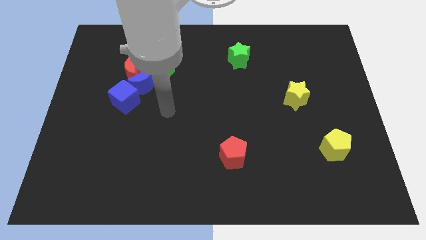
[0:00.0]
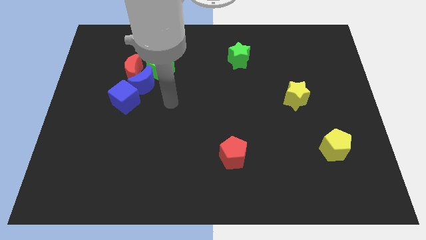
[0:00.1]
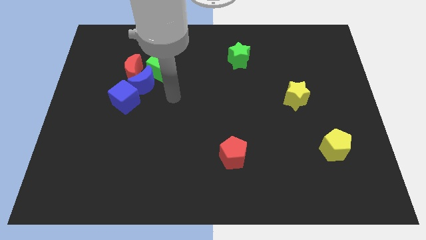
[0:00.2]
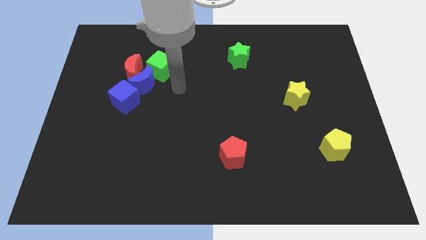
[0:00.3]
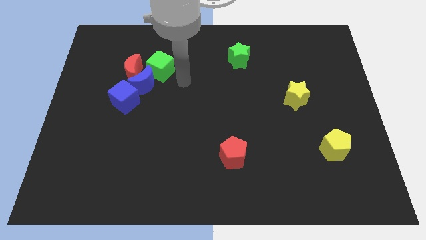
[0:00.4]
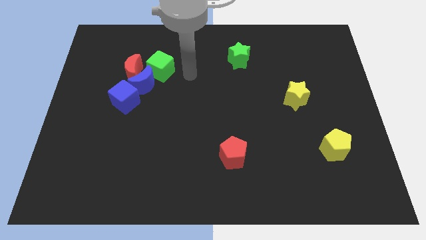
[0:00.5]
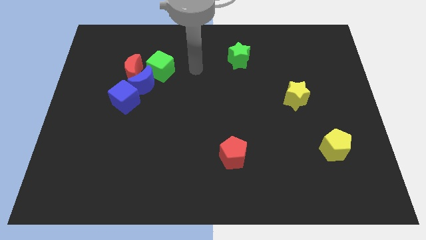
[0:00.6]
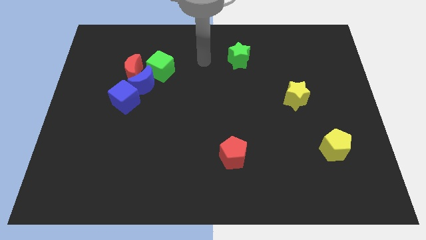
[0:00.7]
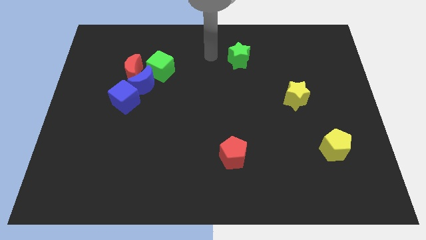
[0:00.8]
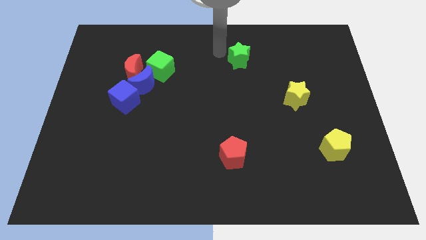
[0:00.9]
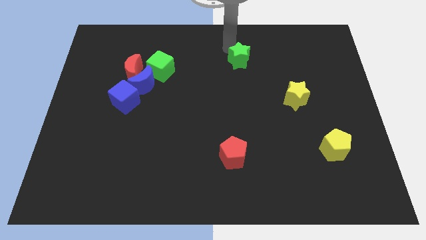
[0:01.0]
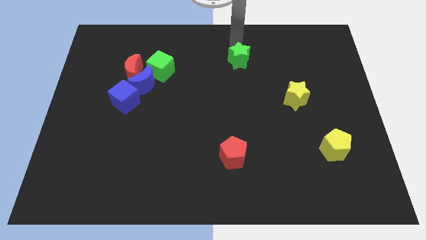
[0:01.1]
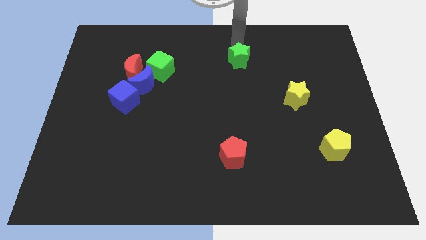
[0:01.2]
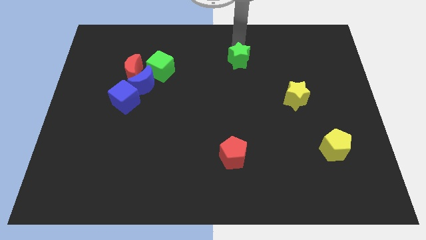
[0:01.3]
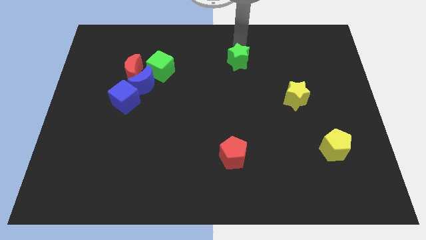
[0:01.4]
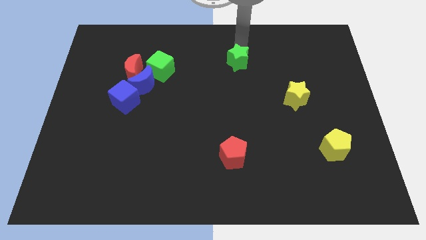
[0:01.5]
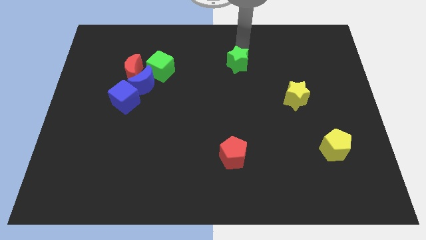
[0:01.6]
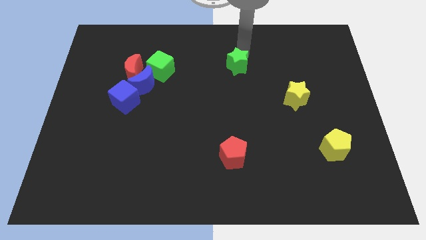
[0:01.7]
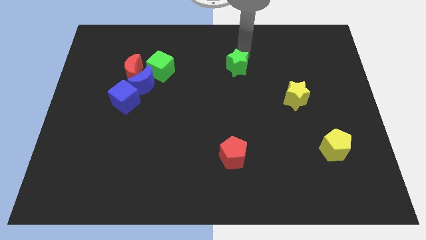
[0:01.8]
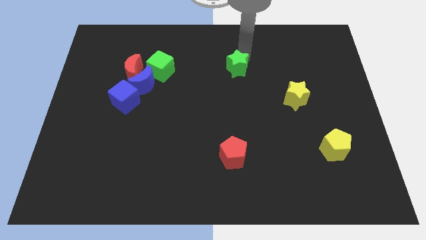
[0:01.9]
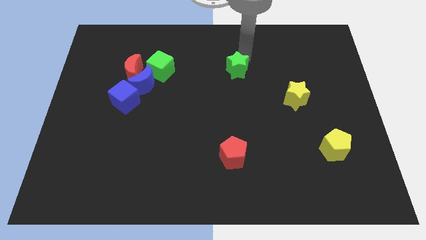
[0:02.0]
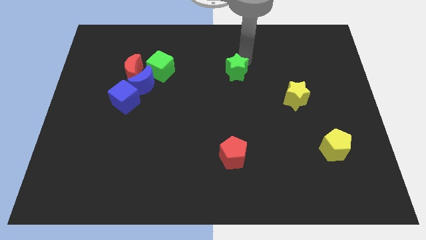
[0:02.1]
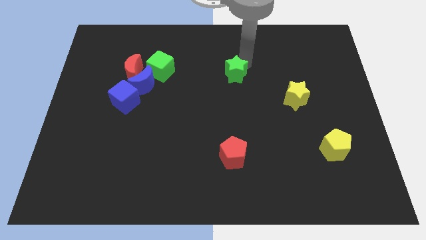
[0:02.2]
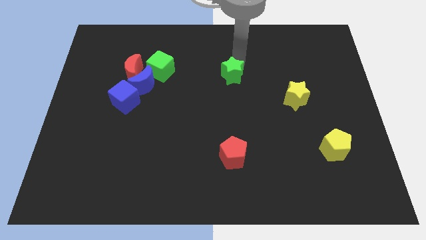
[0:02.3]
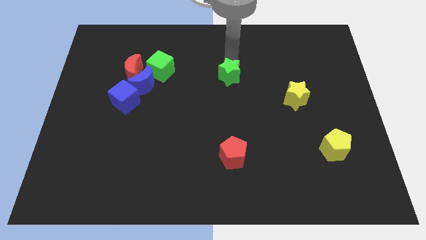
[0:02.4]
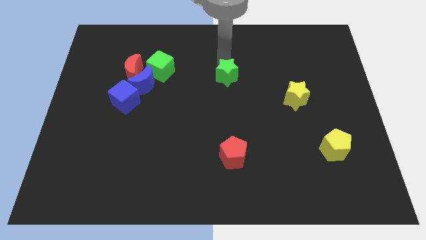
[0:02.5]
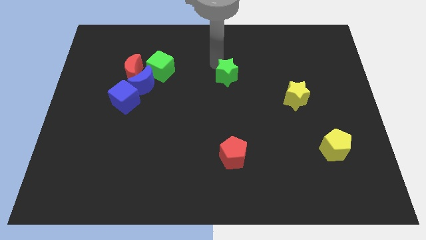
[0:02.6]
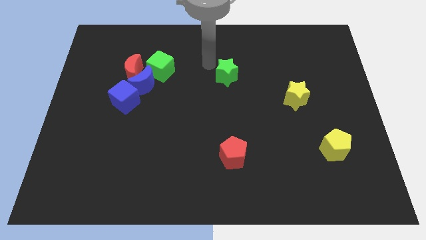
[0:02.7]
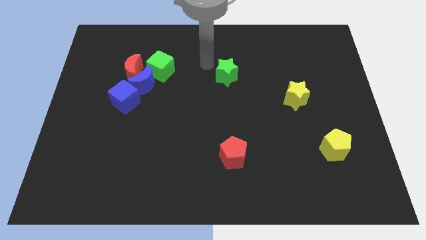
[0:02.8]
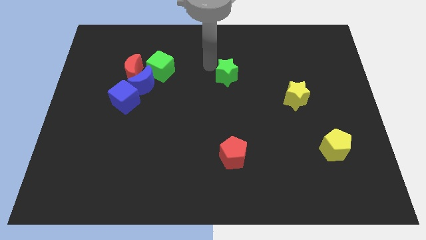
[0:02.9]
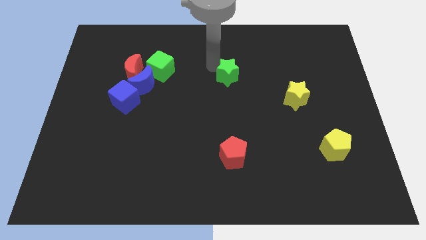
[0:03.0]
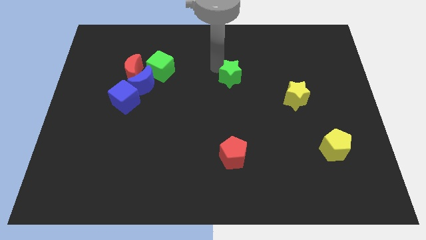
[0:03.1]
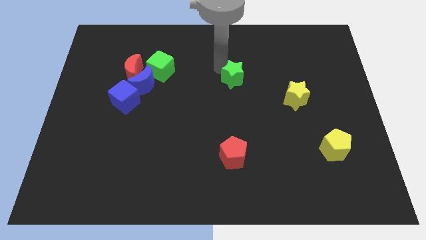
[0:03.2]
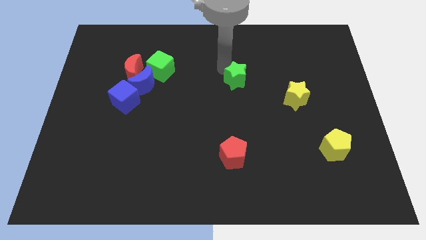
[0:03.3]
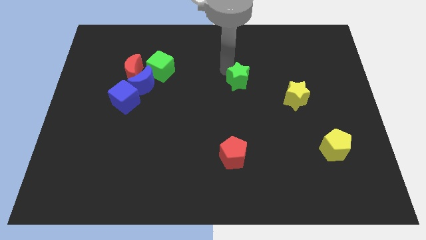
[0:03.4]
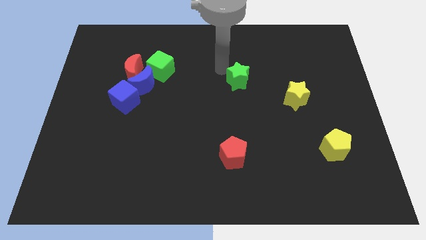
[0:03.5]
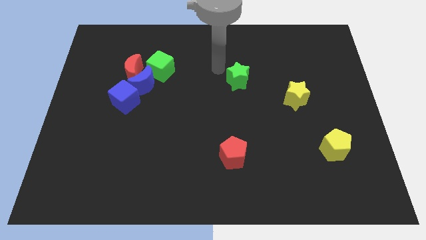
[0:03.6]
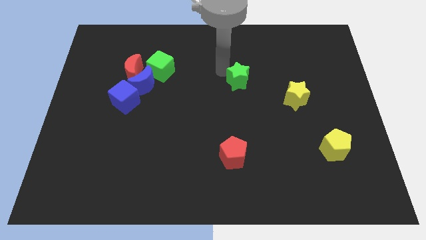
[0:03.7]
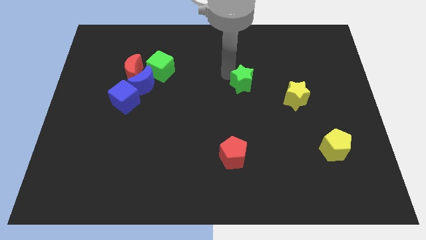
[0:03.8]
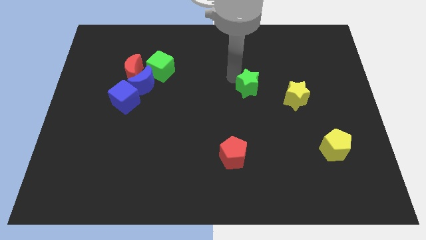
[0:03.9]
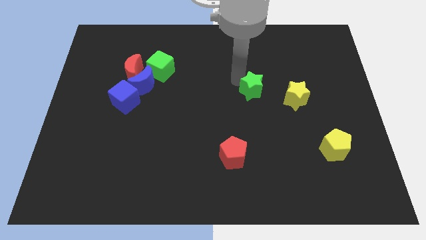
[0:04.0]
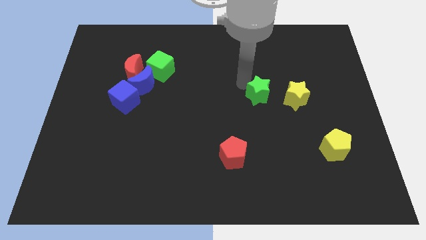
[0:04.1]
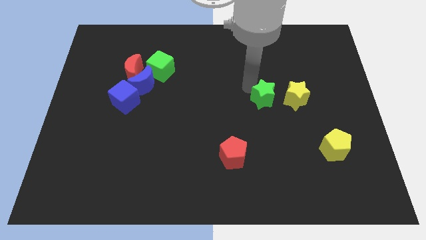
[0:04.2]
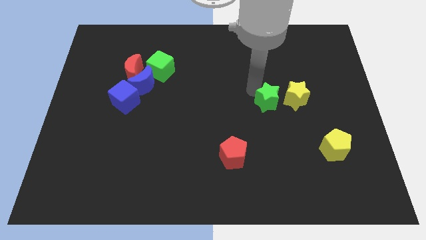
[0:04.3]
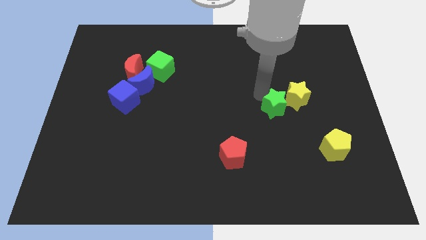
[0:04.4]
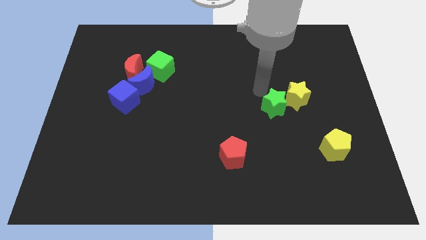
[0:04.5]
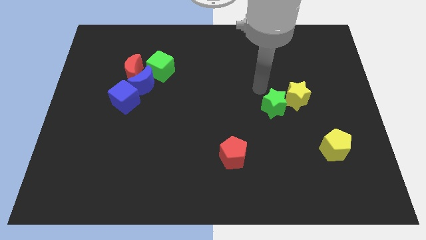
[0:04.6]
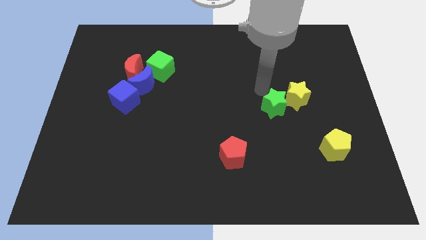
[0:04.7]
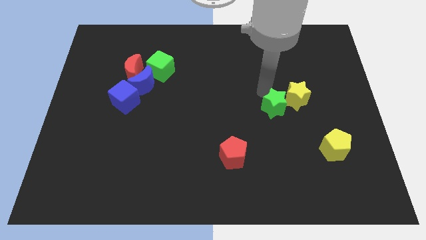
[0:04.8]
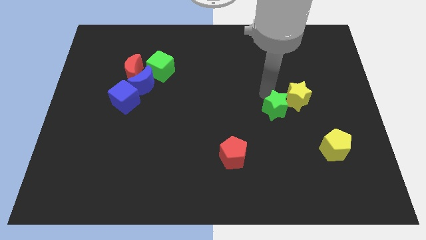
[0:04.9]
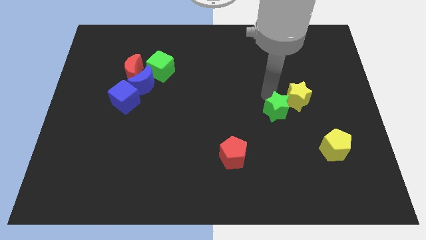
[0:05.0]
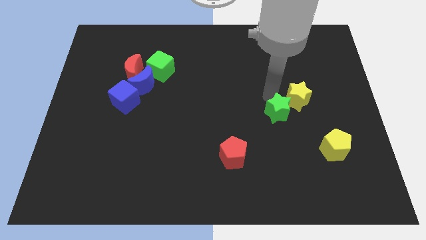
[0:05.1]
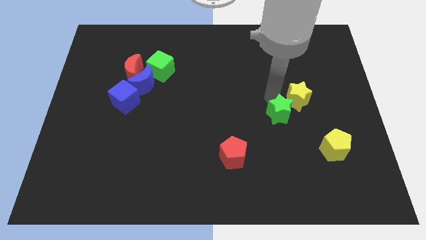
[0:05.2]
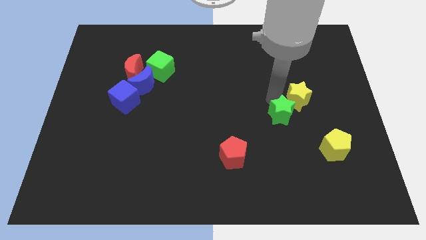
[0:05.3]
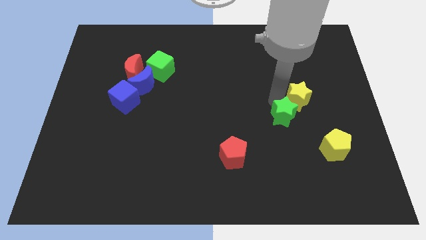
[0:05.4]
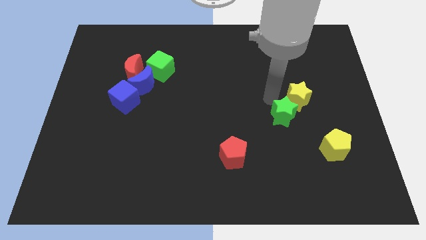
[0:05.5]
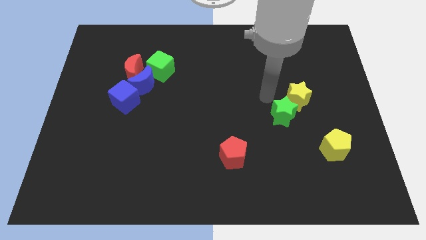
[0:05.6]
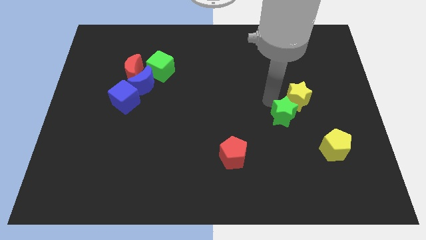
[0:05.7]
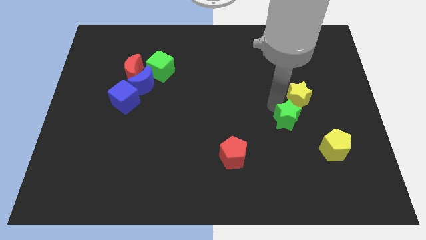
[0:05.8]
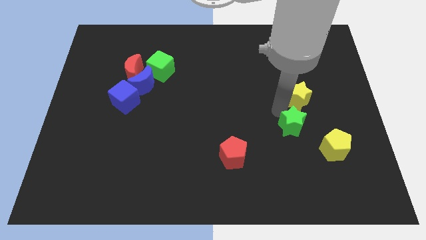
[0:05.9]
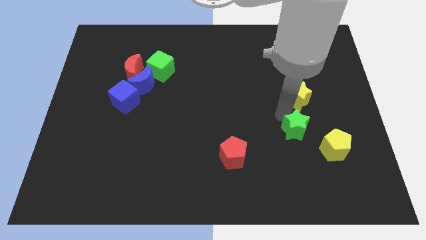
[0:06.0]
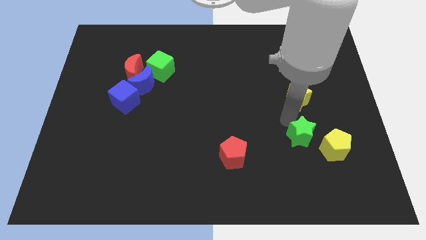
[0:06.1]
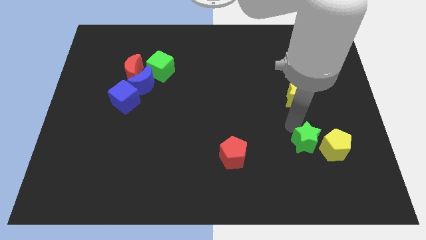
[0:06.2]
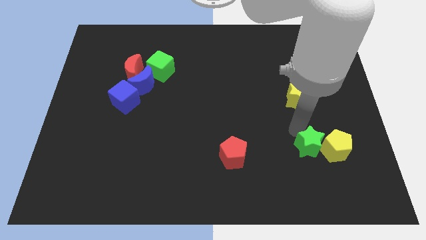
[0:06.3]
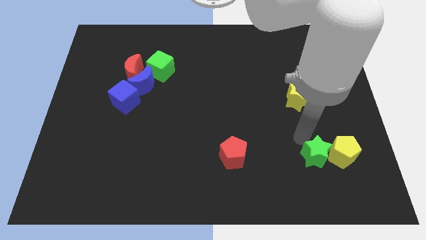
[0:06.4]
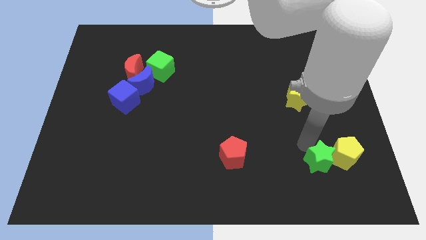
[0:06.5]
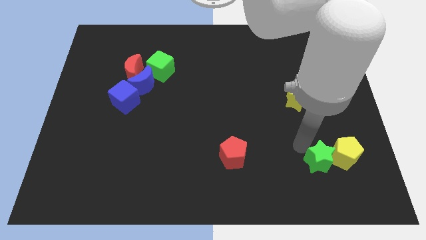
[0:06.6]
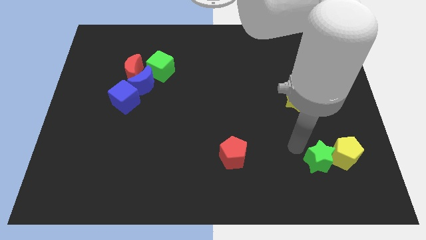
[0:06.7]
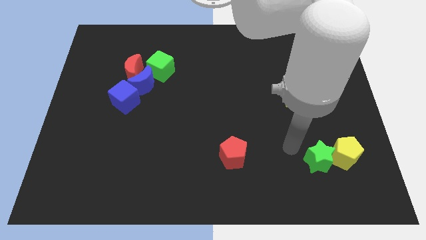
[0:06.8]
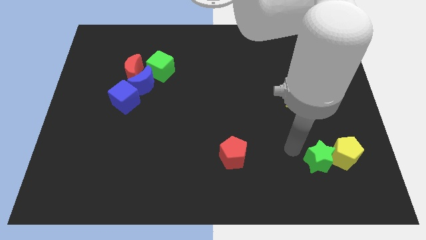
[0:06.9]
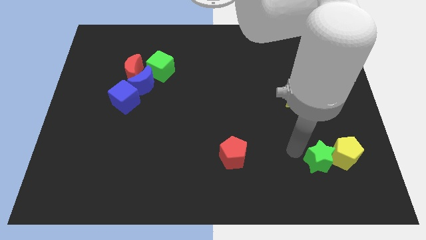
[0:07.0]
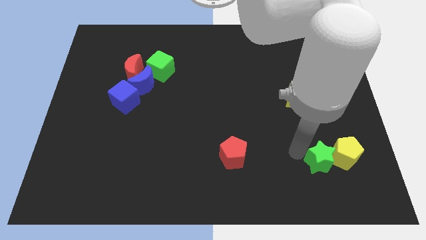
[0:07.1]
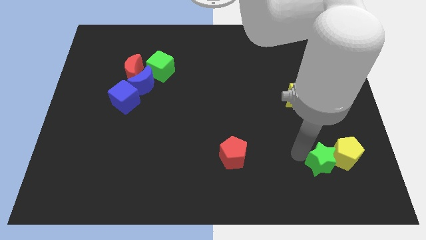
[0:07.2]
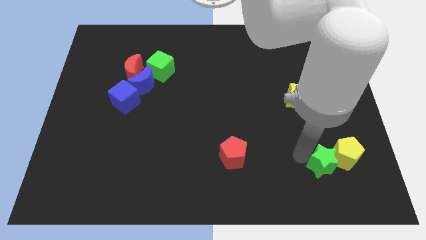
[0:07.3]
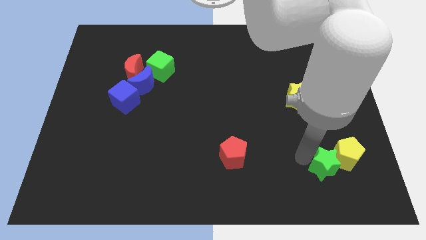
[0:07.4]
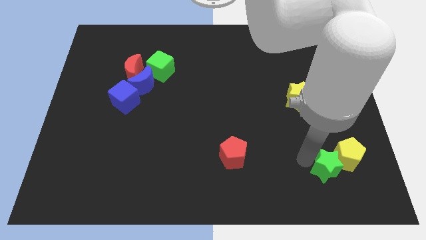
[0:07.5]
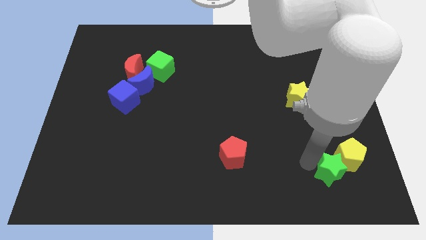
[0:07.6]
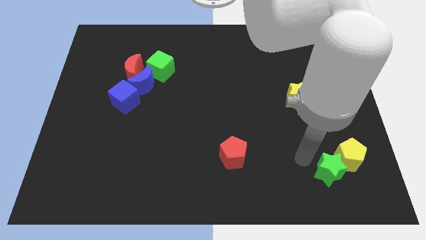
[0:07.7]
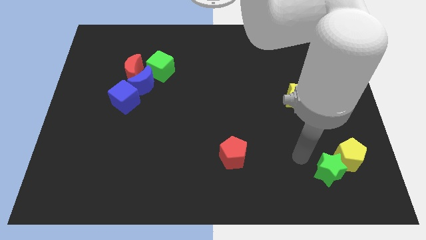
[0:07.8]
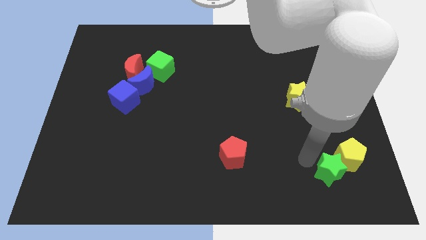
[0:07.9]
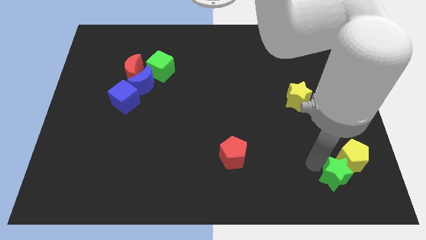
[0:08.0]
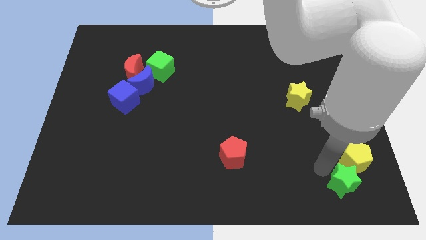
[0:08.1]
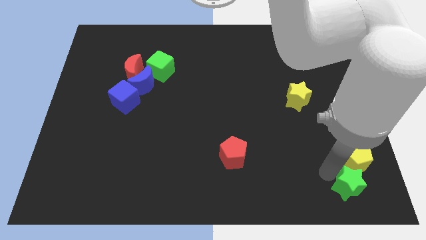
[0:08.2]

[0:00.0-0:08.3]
move the green star to the bottom right corner
